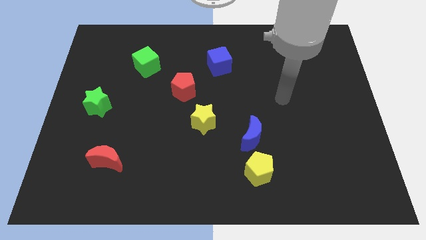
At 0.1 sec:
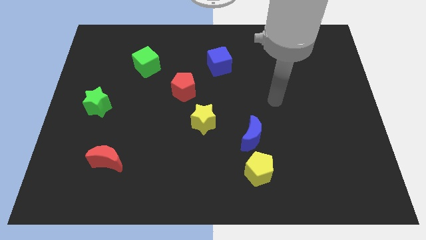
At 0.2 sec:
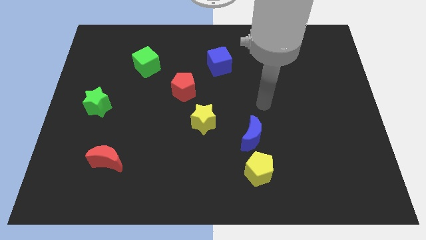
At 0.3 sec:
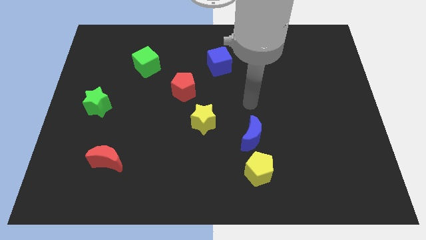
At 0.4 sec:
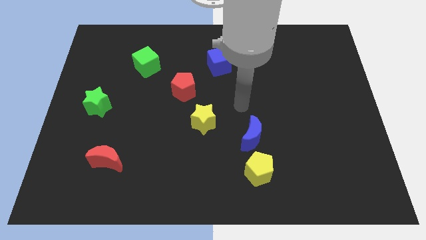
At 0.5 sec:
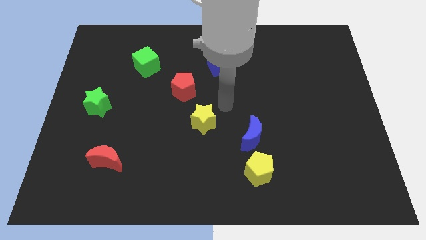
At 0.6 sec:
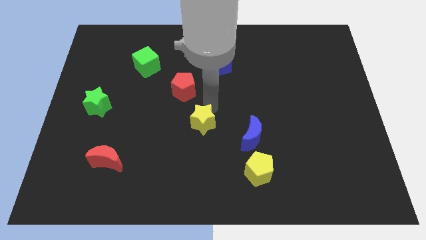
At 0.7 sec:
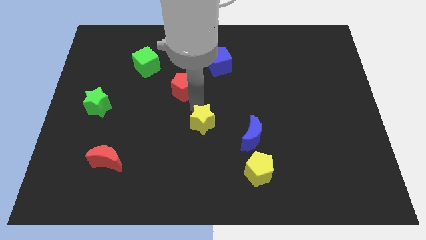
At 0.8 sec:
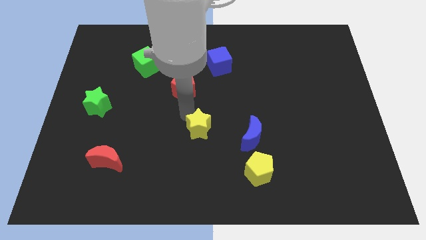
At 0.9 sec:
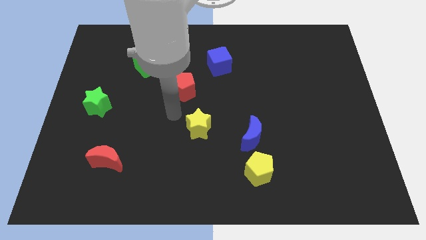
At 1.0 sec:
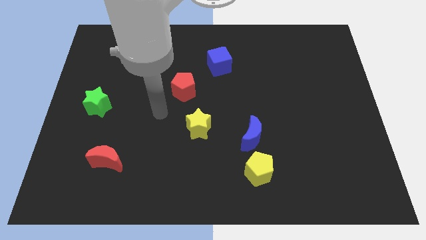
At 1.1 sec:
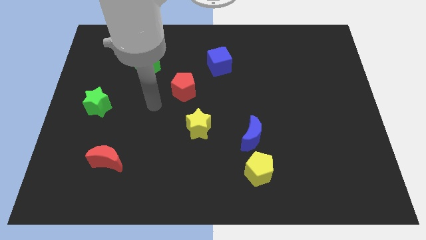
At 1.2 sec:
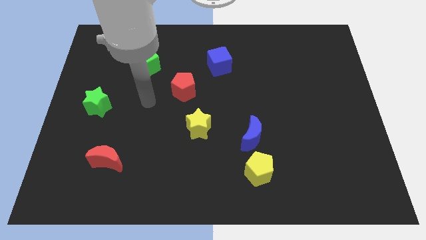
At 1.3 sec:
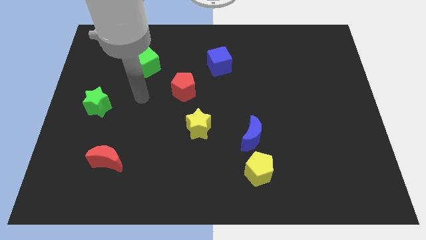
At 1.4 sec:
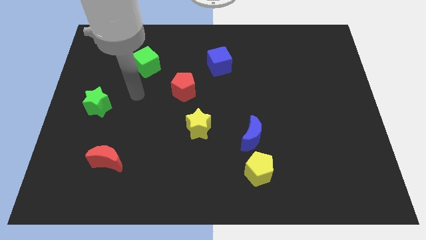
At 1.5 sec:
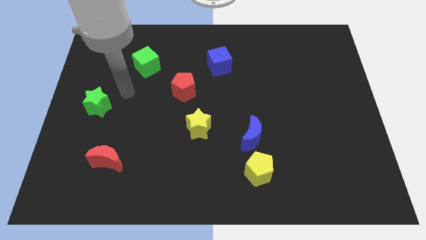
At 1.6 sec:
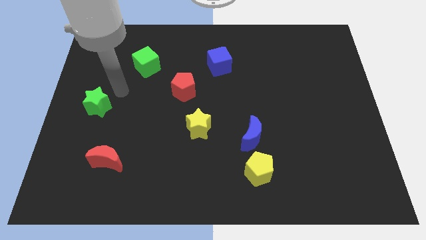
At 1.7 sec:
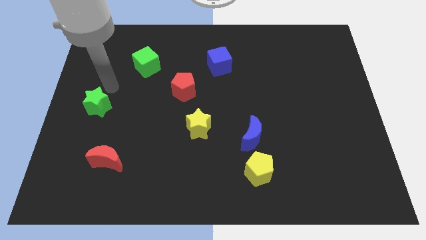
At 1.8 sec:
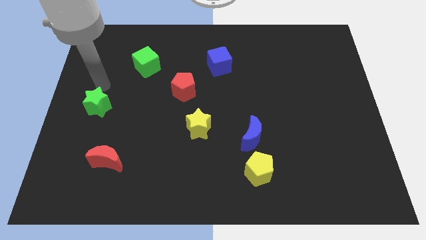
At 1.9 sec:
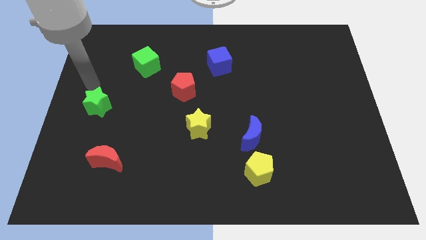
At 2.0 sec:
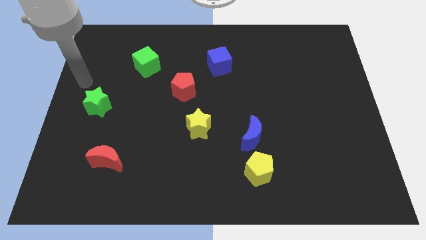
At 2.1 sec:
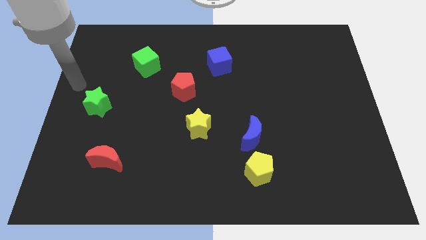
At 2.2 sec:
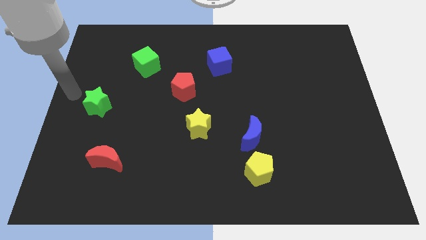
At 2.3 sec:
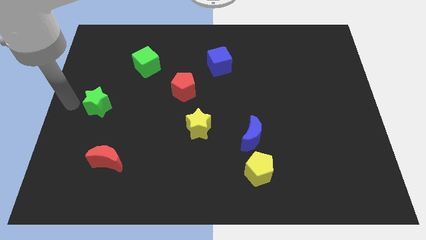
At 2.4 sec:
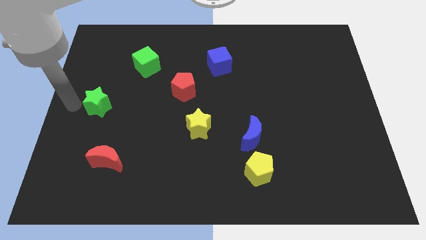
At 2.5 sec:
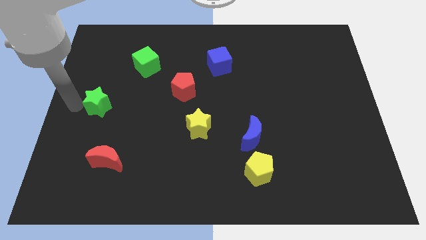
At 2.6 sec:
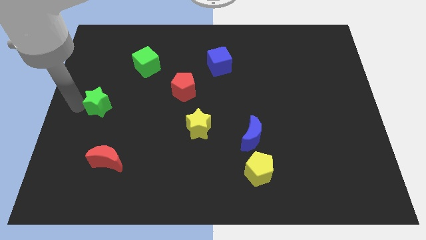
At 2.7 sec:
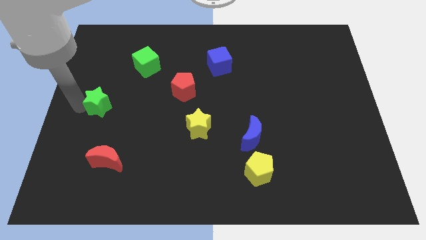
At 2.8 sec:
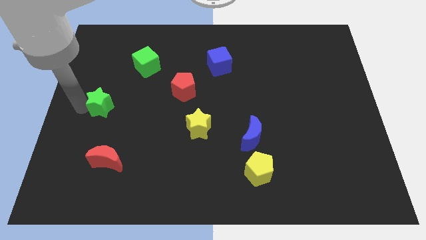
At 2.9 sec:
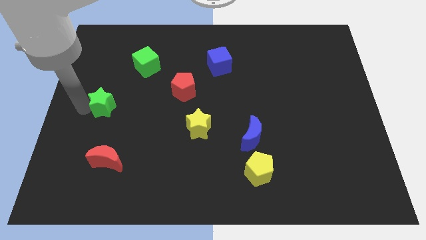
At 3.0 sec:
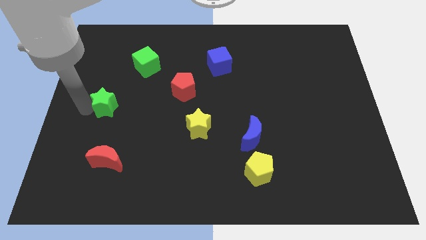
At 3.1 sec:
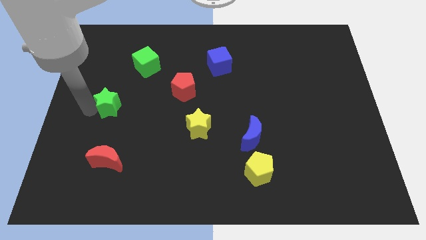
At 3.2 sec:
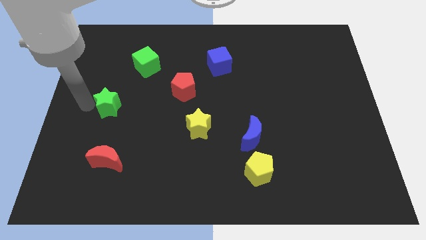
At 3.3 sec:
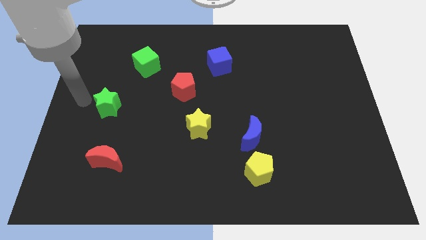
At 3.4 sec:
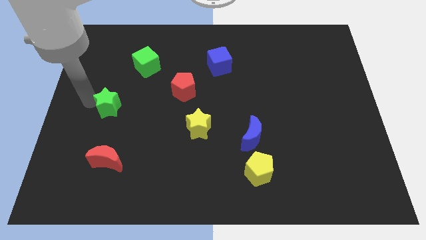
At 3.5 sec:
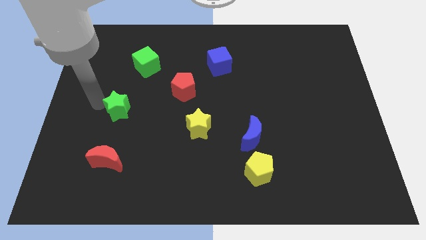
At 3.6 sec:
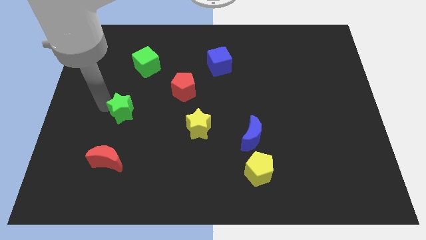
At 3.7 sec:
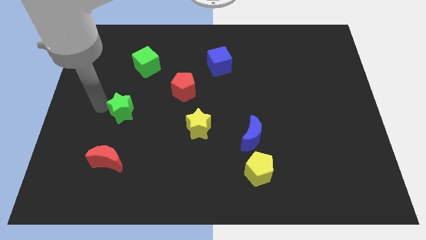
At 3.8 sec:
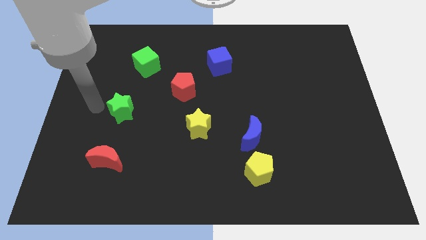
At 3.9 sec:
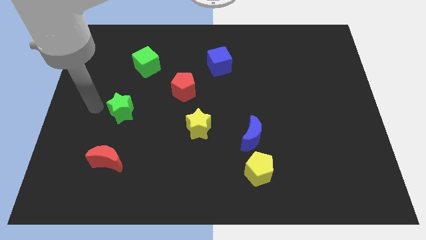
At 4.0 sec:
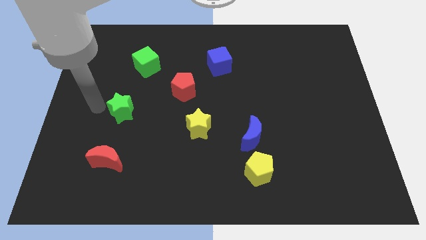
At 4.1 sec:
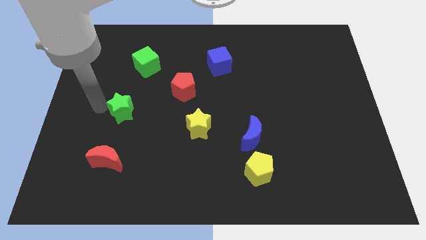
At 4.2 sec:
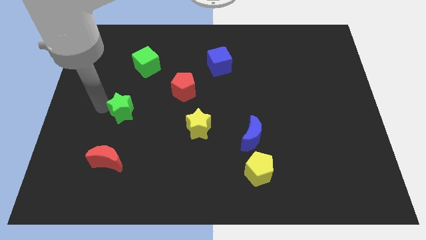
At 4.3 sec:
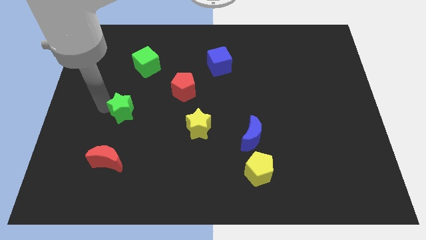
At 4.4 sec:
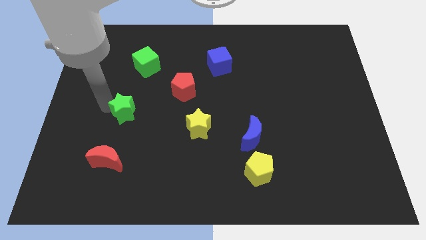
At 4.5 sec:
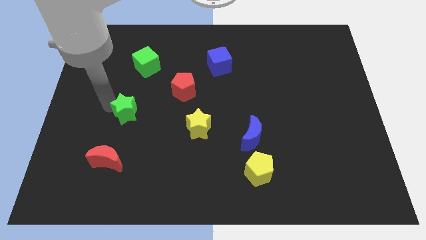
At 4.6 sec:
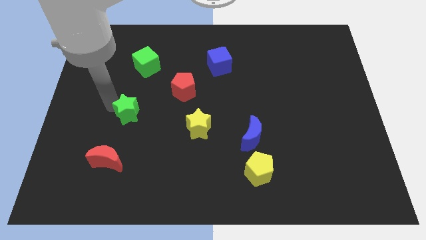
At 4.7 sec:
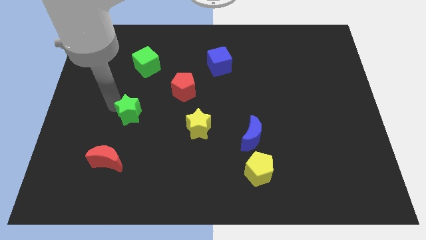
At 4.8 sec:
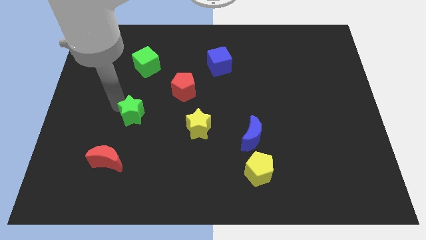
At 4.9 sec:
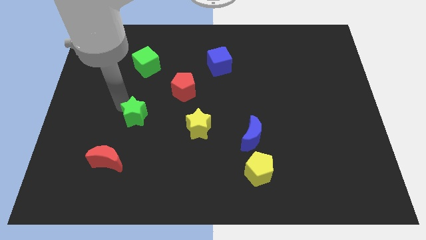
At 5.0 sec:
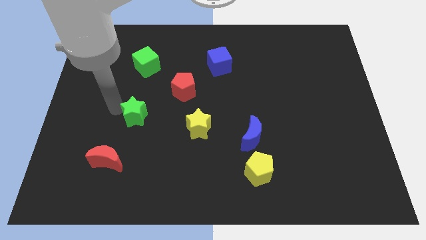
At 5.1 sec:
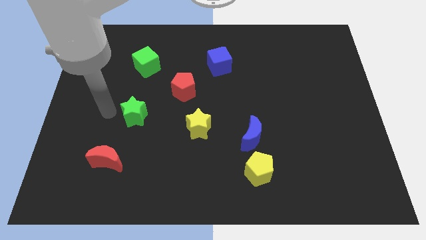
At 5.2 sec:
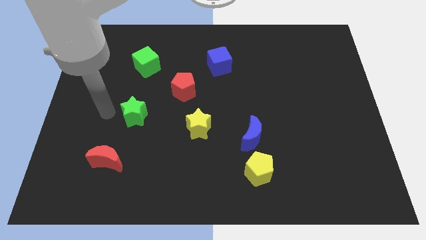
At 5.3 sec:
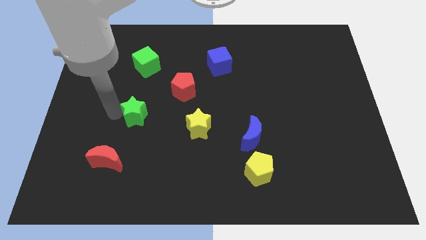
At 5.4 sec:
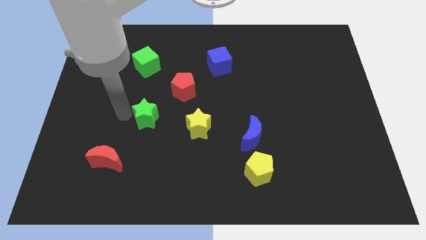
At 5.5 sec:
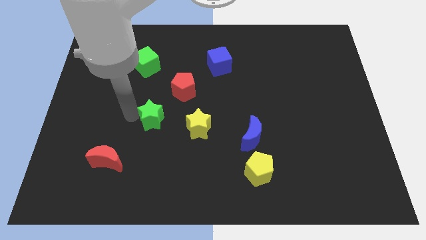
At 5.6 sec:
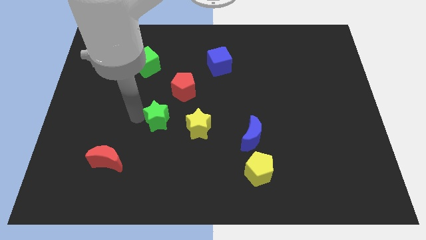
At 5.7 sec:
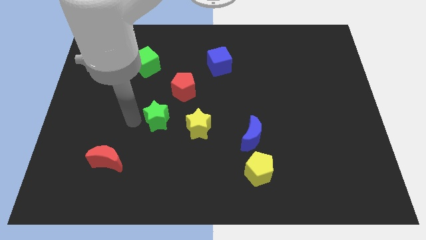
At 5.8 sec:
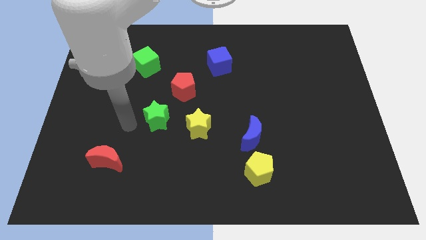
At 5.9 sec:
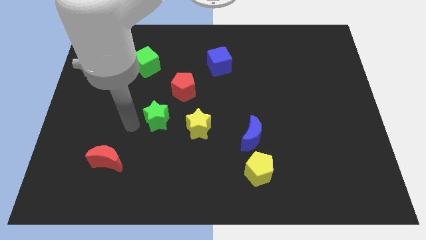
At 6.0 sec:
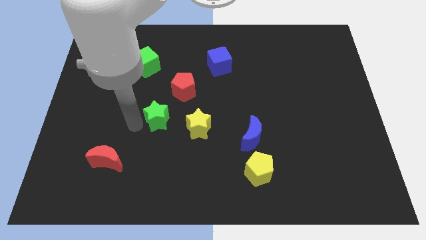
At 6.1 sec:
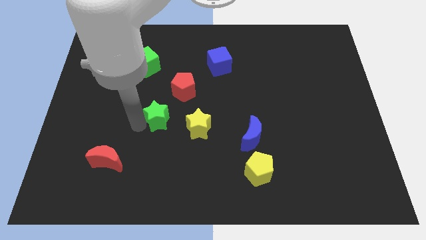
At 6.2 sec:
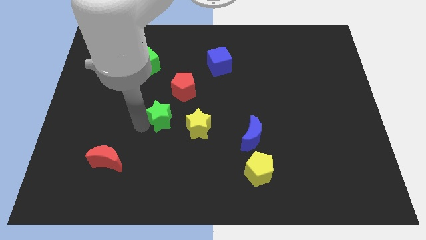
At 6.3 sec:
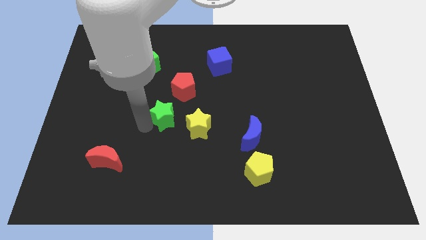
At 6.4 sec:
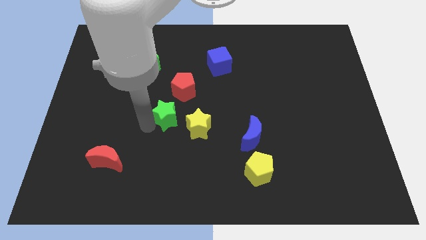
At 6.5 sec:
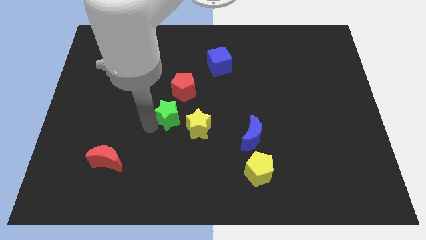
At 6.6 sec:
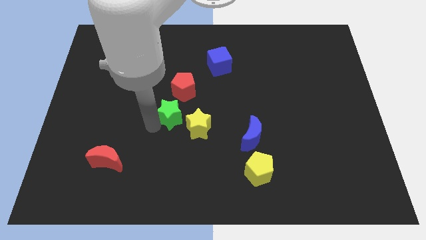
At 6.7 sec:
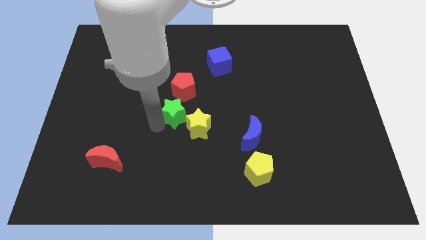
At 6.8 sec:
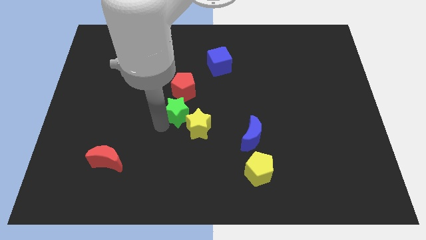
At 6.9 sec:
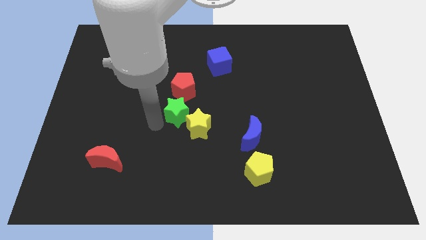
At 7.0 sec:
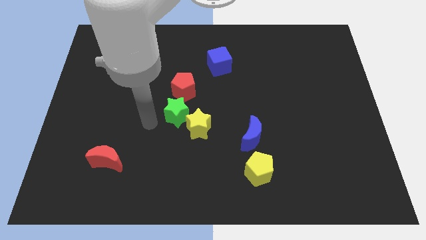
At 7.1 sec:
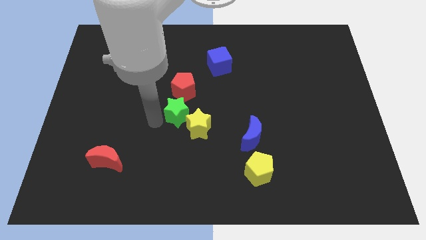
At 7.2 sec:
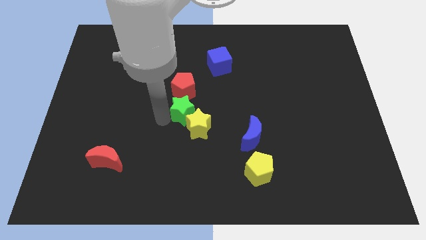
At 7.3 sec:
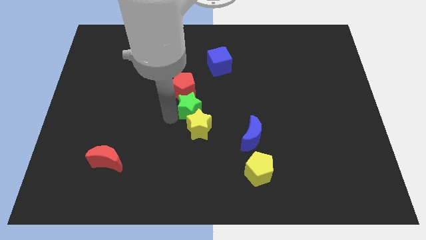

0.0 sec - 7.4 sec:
move the green star diagonally down and to the right of the red pentagon
